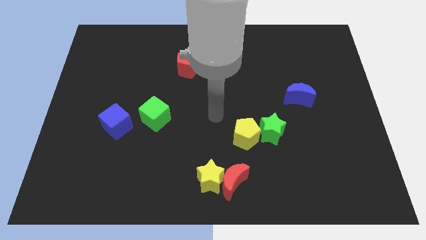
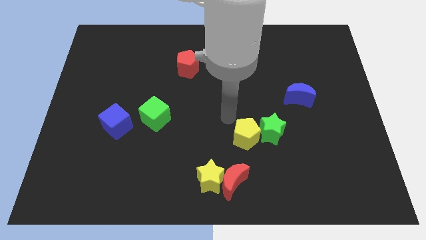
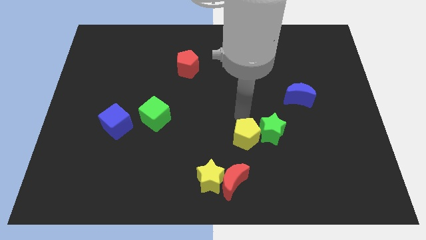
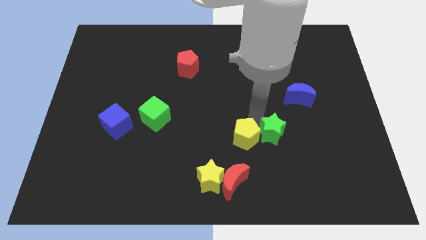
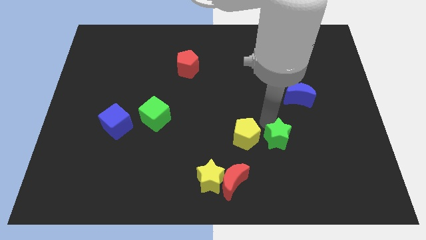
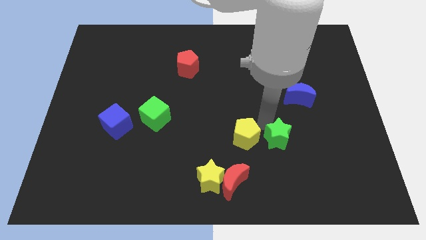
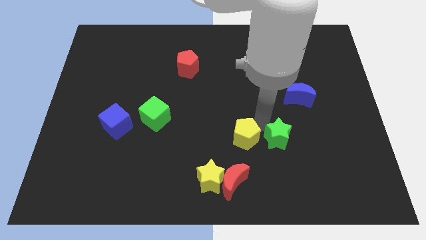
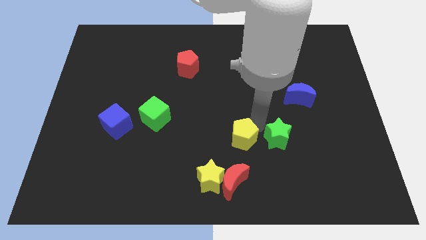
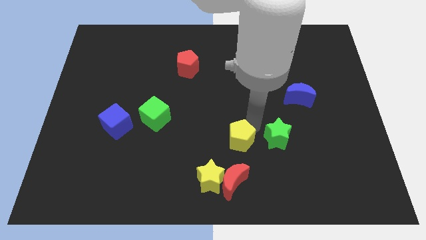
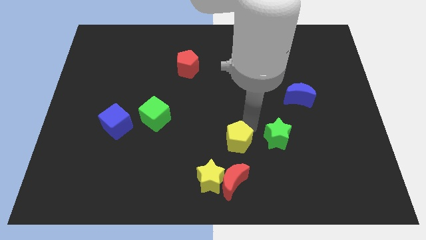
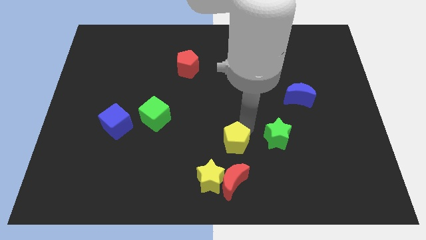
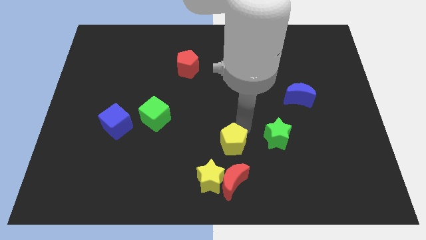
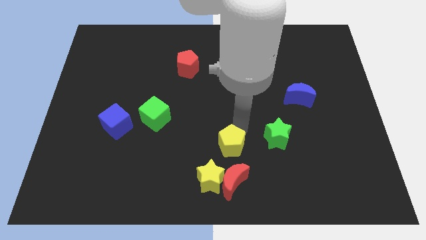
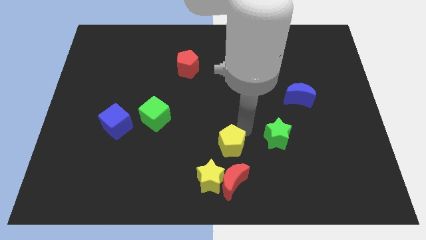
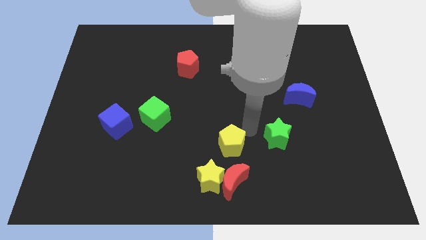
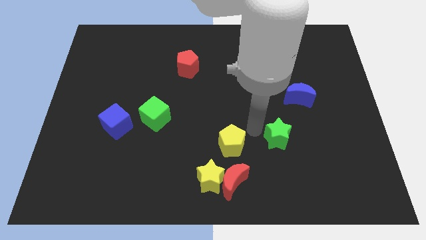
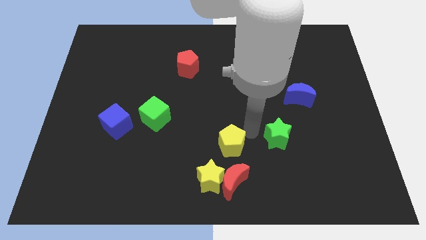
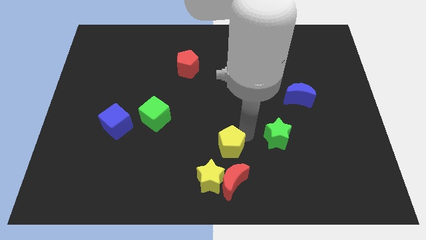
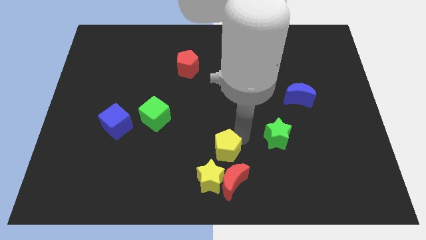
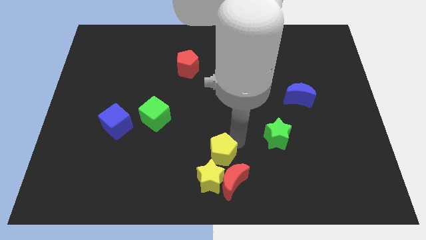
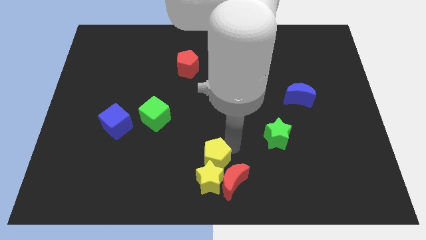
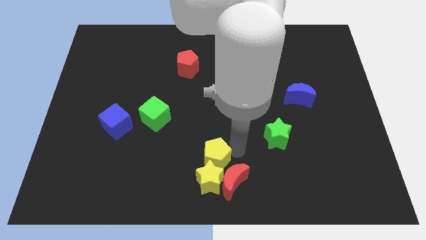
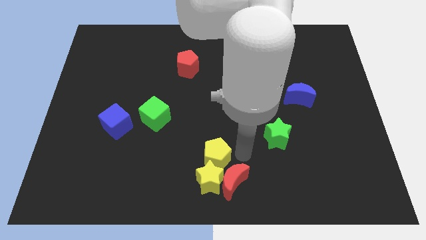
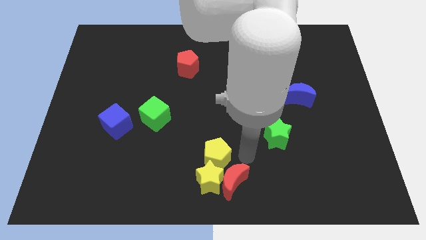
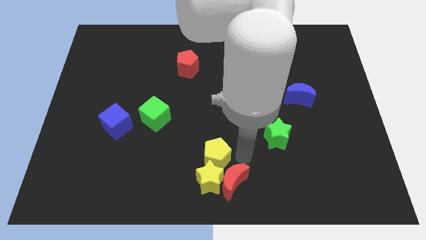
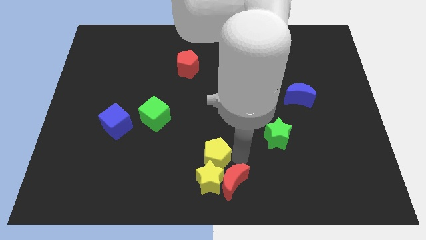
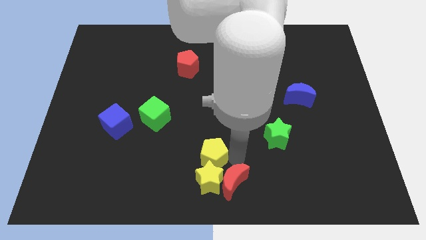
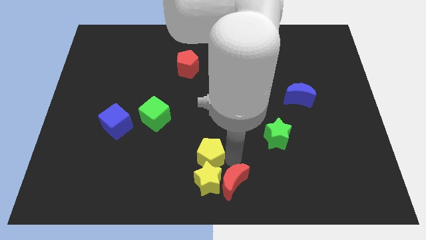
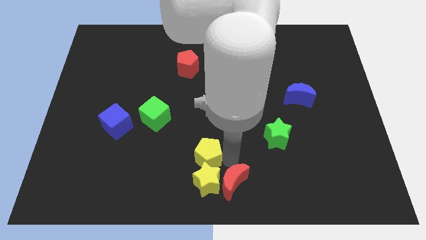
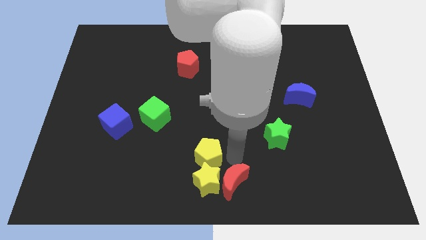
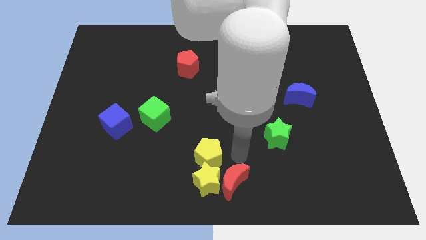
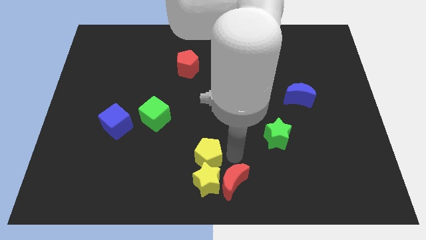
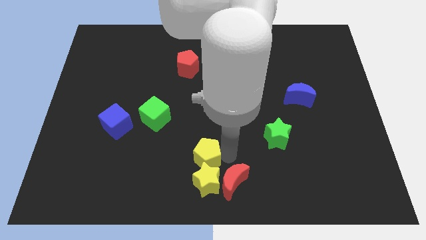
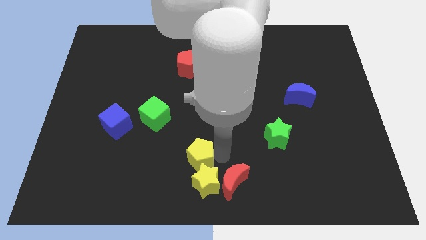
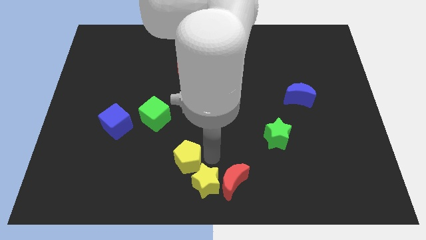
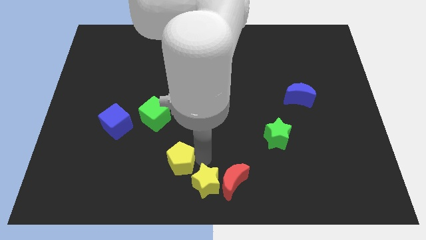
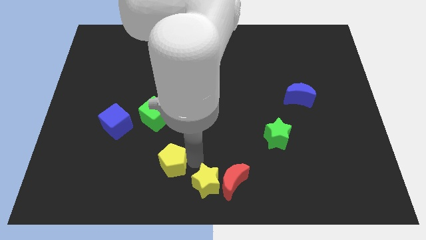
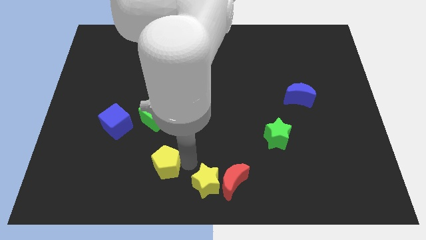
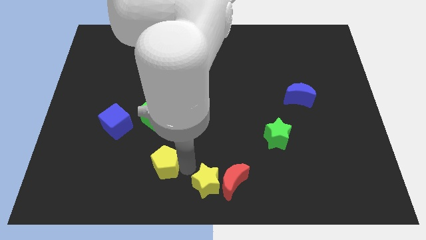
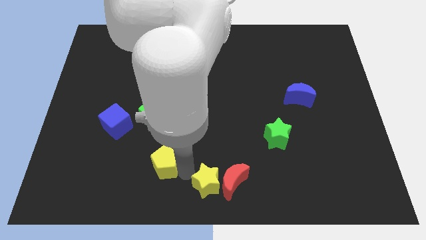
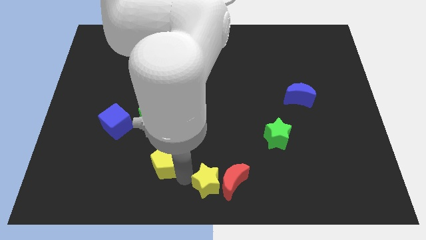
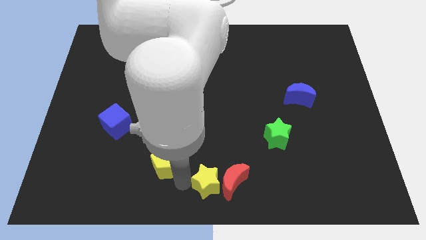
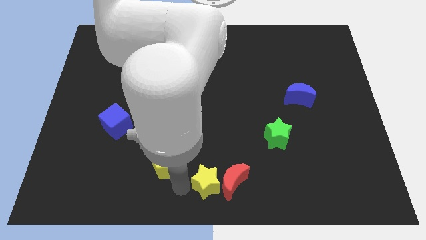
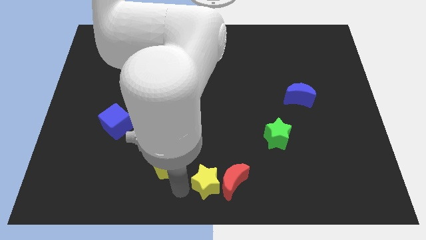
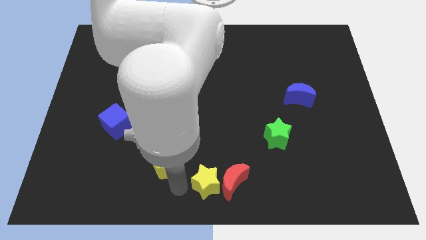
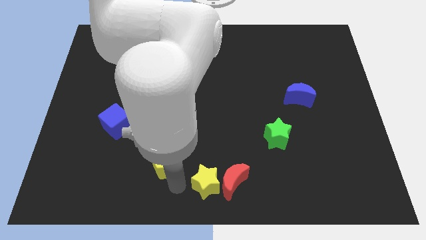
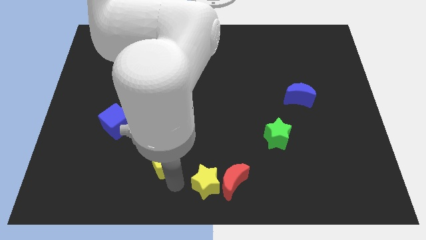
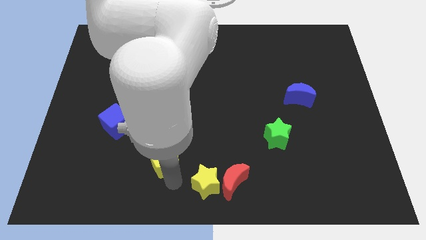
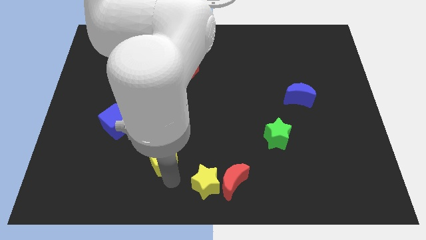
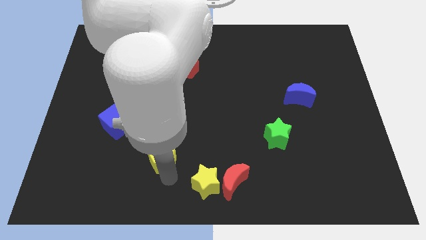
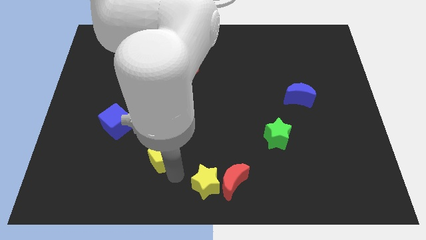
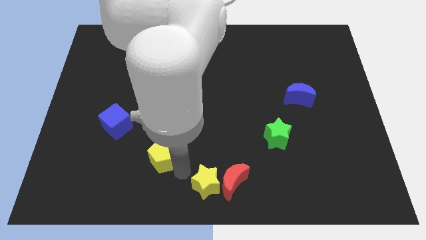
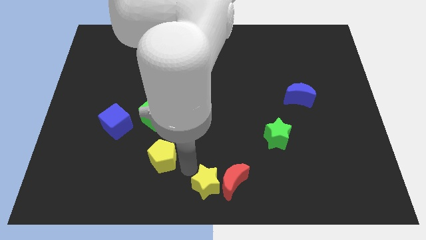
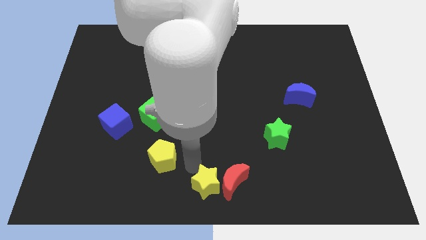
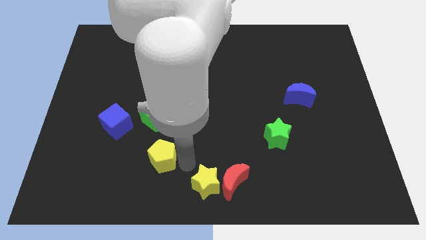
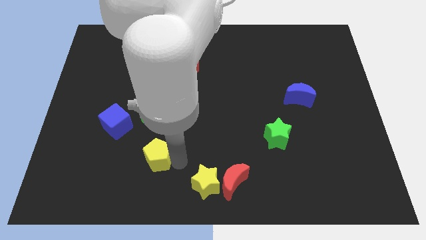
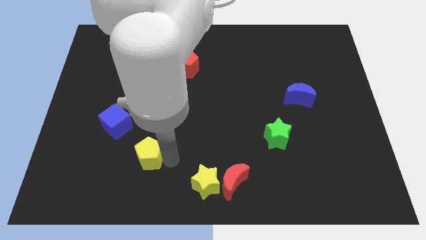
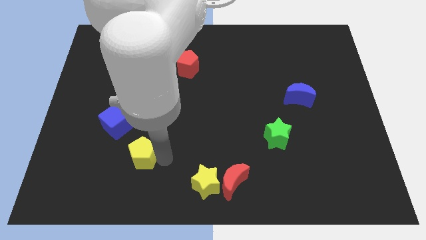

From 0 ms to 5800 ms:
slide the yellow pentagon left

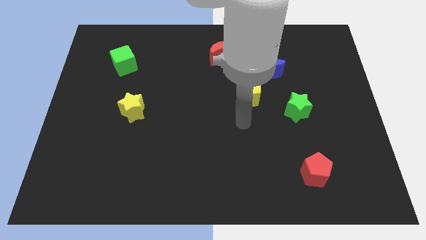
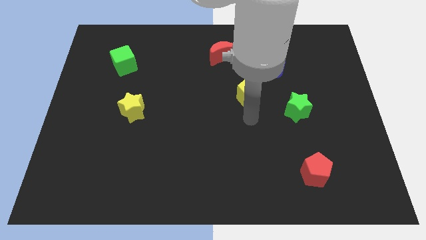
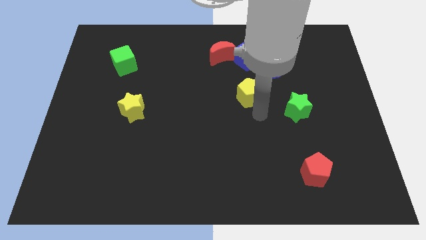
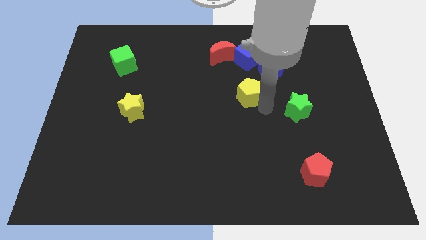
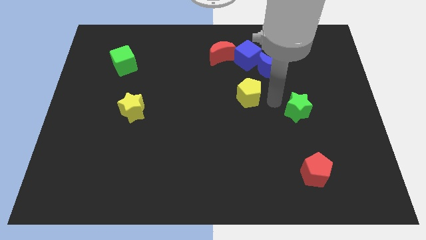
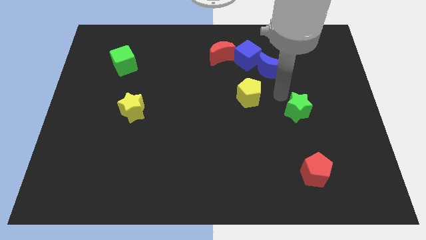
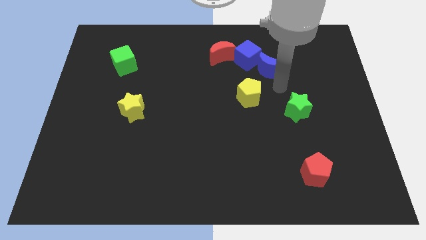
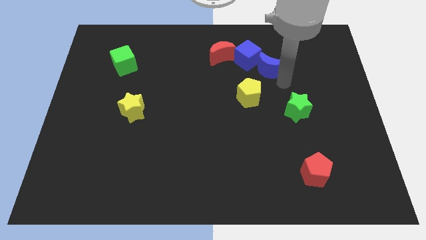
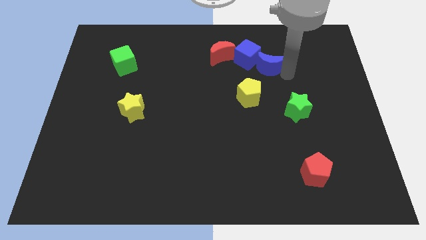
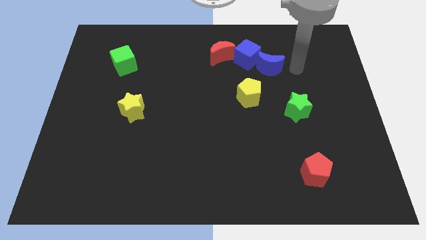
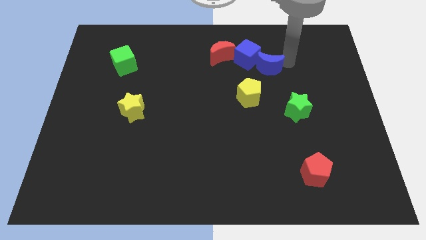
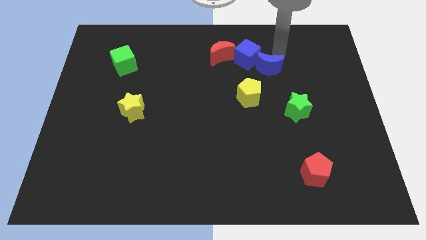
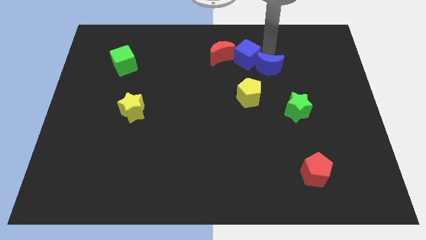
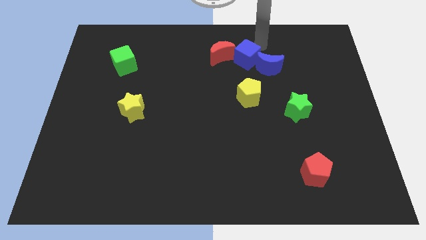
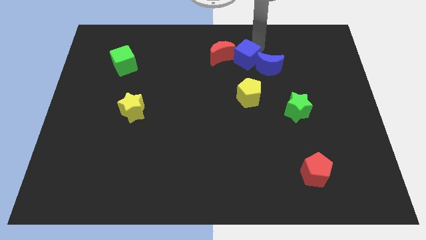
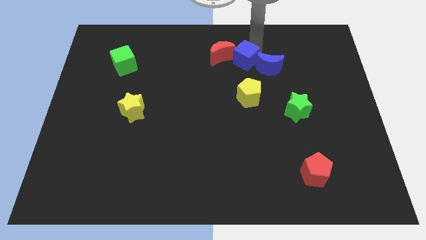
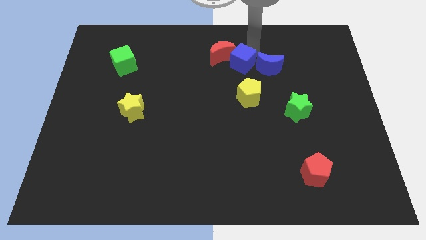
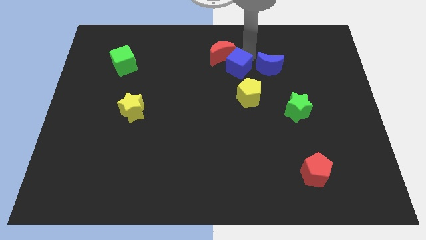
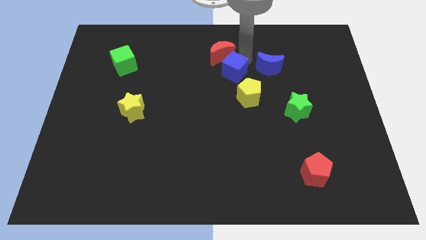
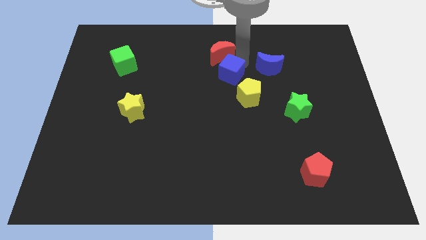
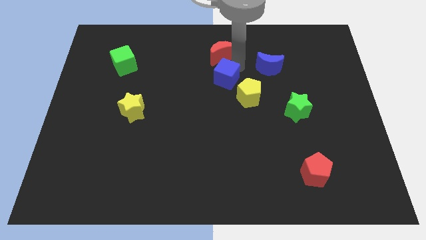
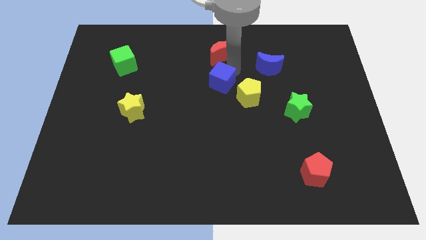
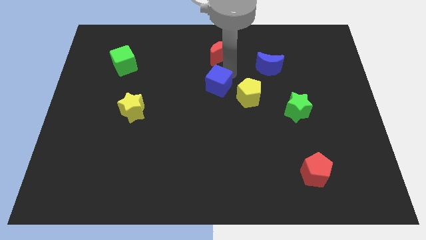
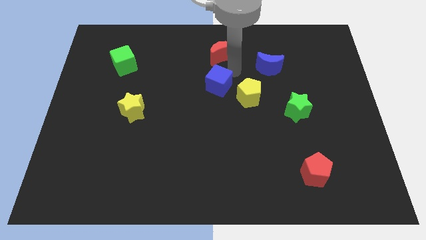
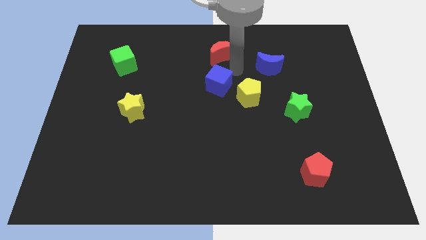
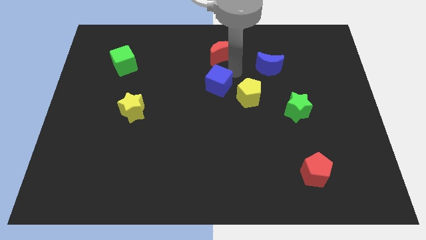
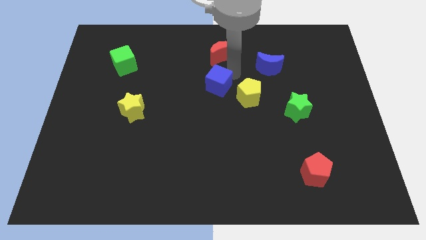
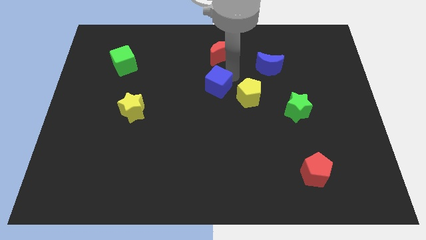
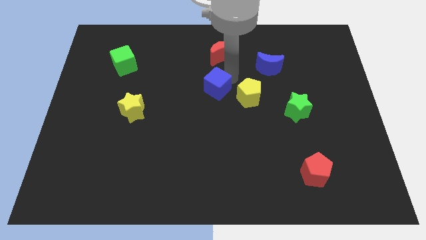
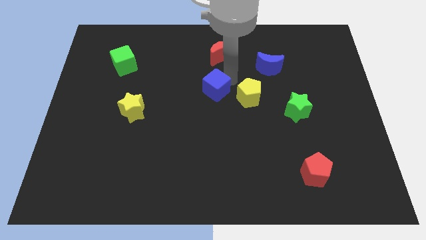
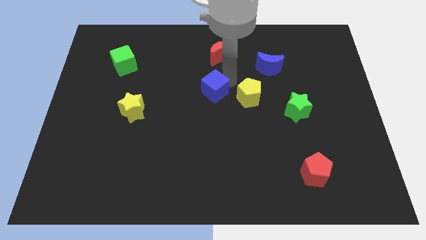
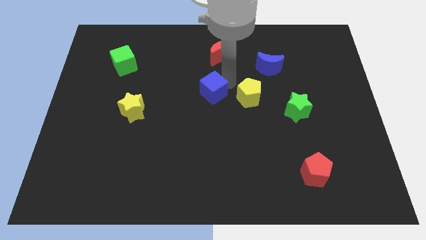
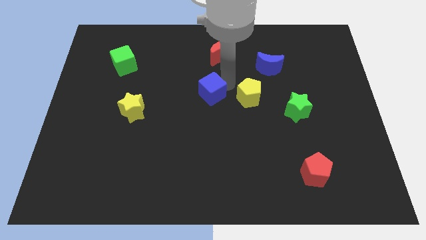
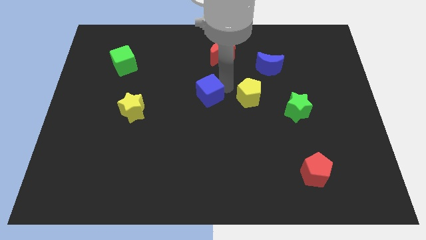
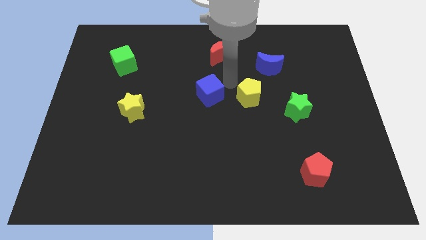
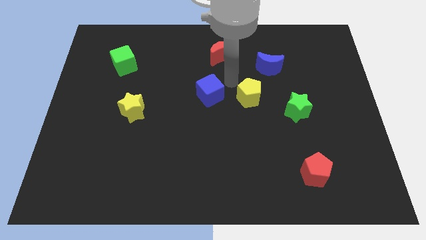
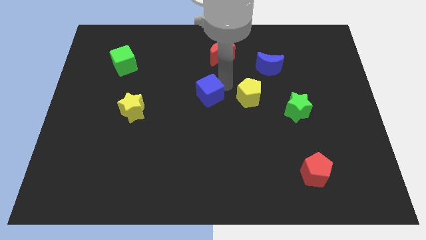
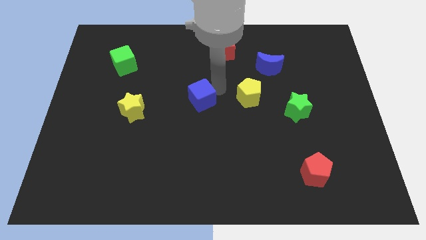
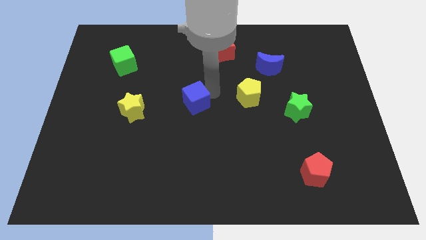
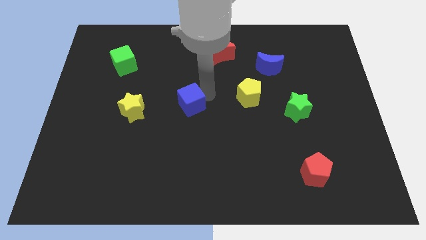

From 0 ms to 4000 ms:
slide the blue cube down and to the left
